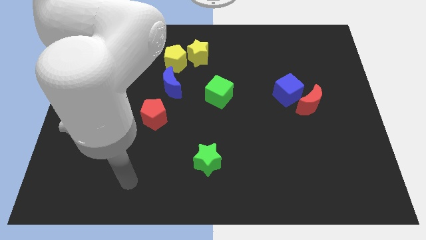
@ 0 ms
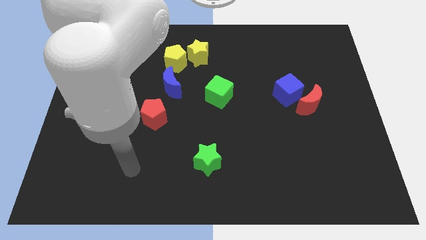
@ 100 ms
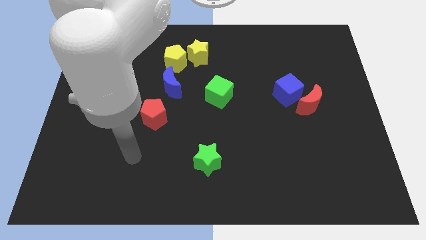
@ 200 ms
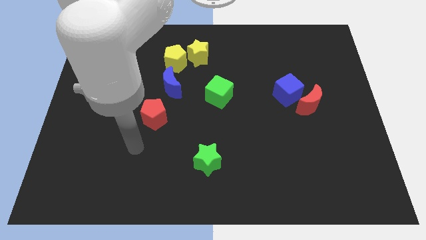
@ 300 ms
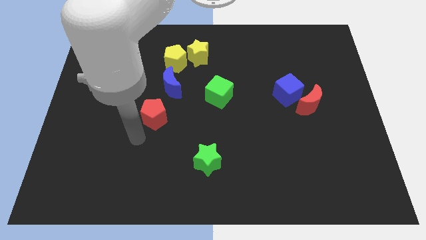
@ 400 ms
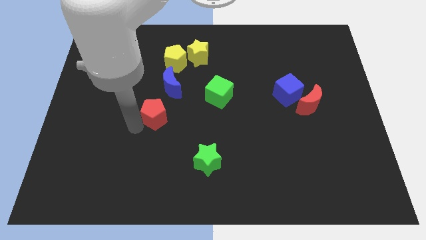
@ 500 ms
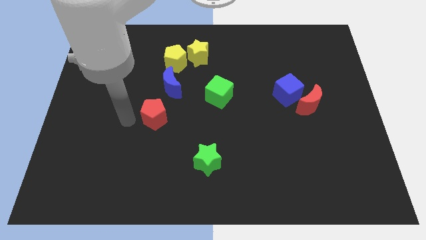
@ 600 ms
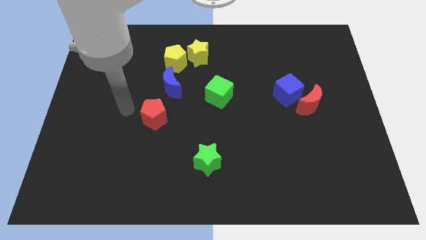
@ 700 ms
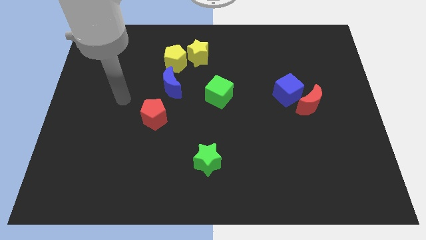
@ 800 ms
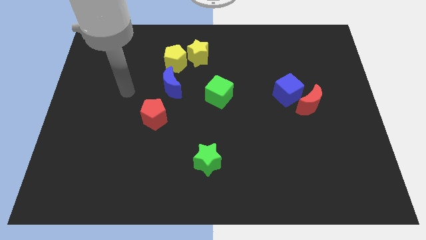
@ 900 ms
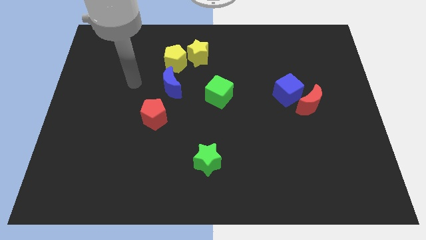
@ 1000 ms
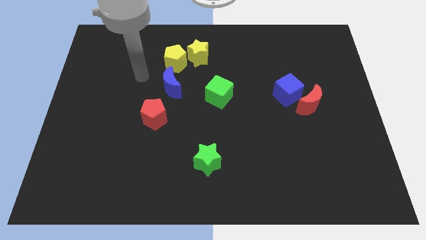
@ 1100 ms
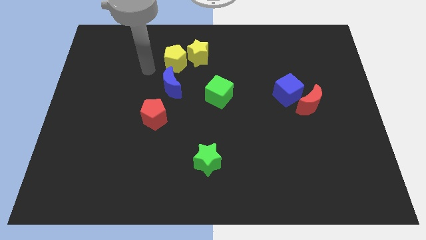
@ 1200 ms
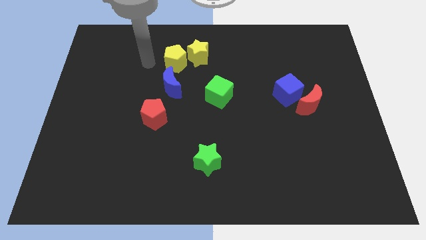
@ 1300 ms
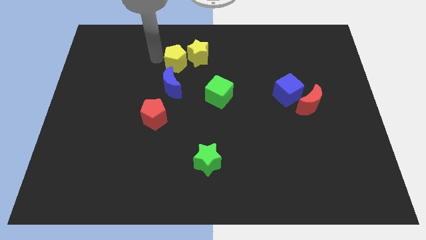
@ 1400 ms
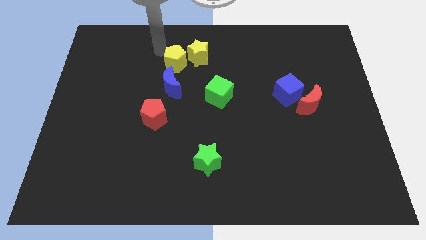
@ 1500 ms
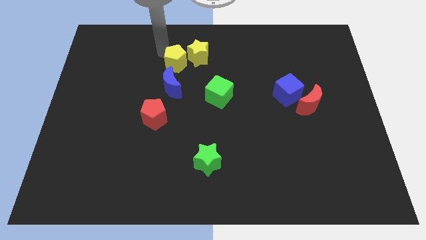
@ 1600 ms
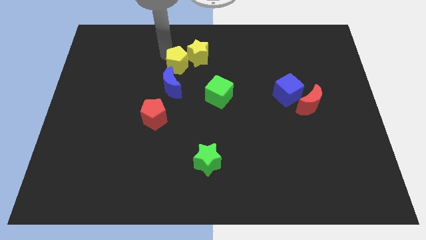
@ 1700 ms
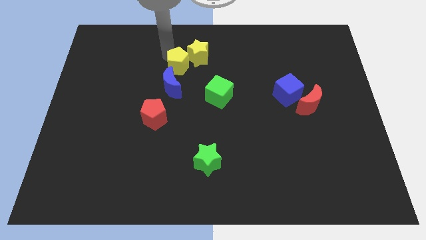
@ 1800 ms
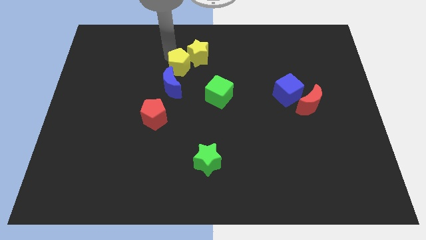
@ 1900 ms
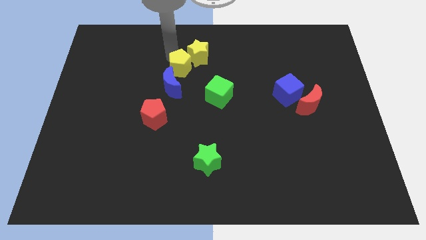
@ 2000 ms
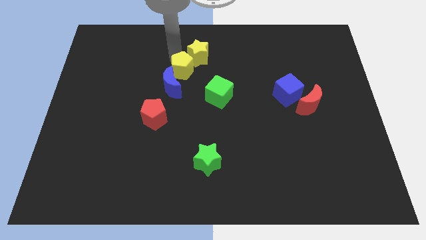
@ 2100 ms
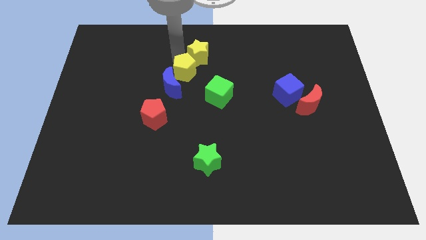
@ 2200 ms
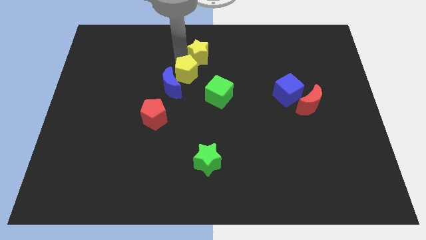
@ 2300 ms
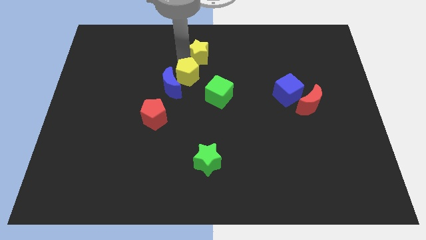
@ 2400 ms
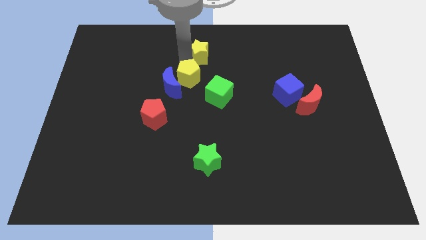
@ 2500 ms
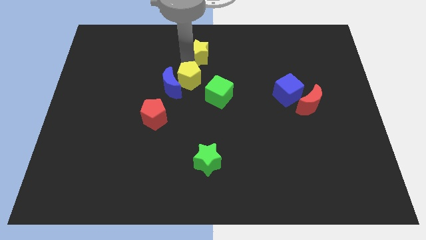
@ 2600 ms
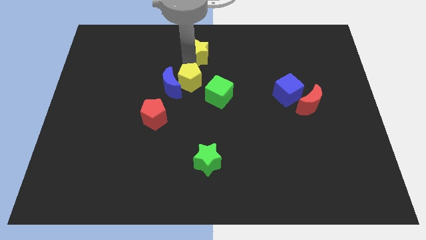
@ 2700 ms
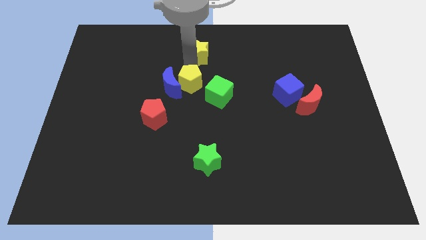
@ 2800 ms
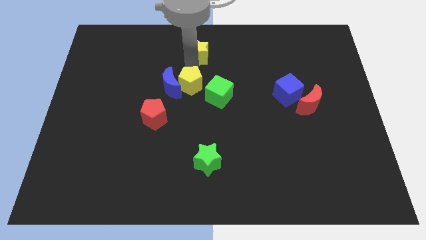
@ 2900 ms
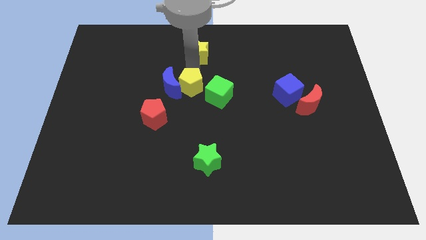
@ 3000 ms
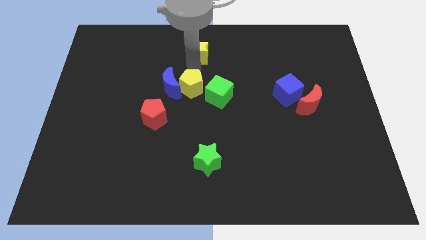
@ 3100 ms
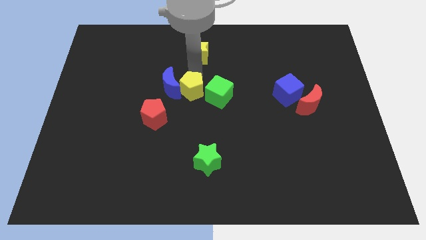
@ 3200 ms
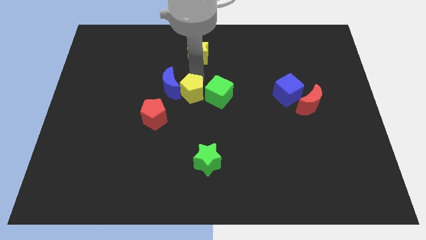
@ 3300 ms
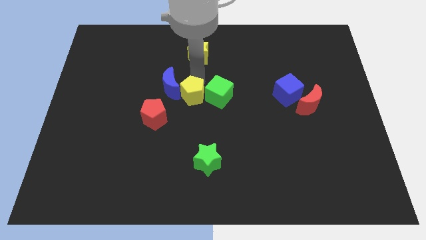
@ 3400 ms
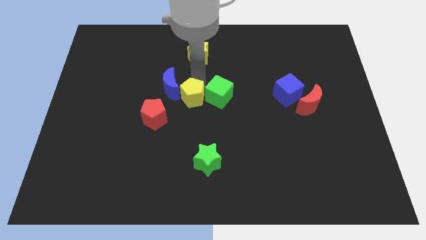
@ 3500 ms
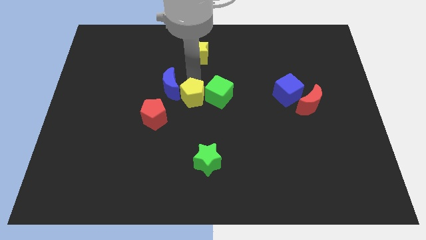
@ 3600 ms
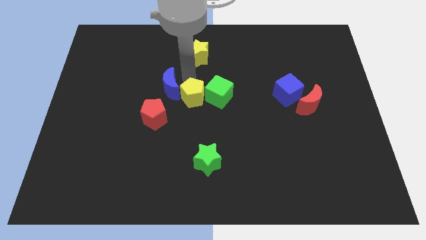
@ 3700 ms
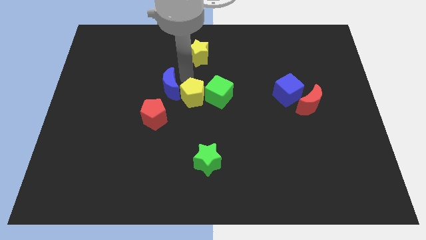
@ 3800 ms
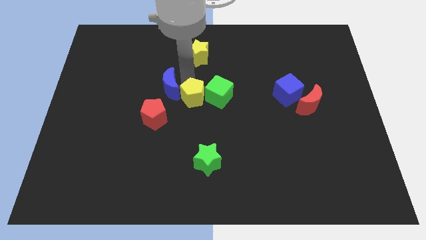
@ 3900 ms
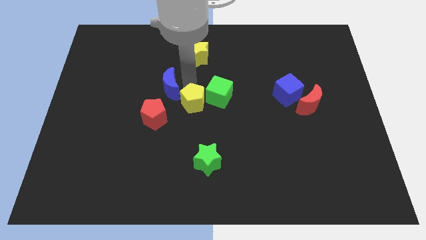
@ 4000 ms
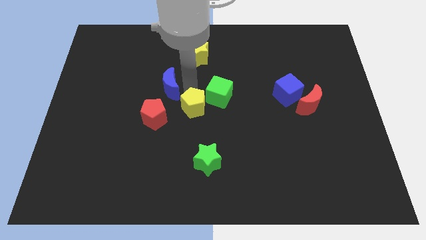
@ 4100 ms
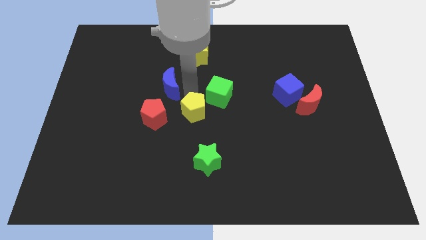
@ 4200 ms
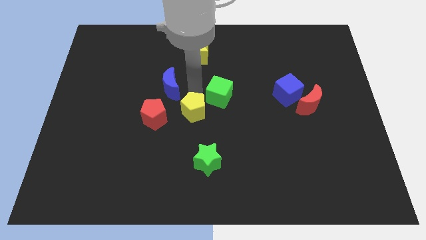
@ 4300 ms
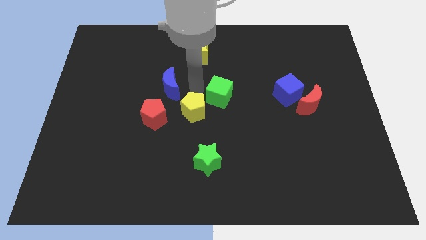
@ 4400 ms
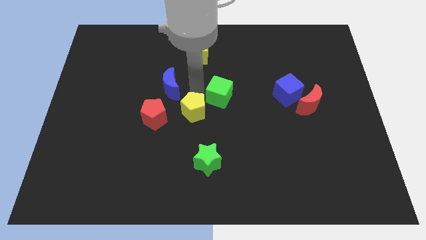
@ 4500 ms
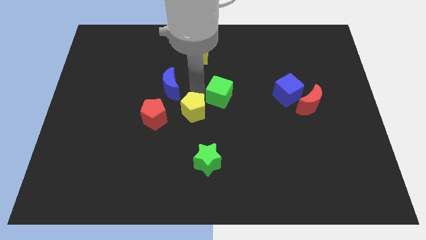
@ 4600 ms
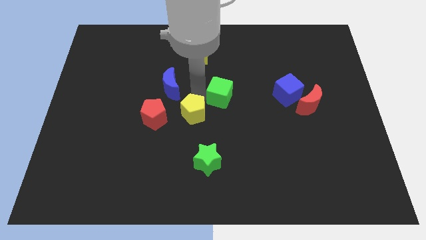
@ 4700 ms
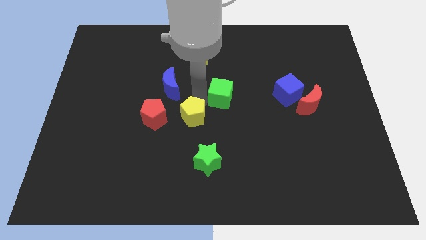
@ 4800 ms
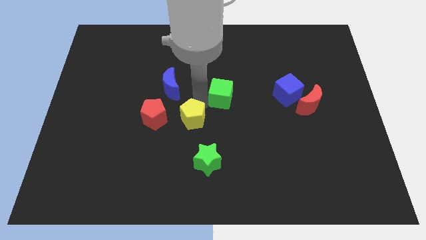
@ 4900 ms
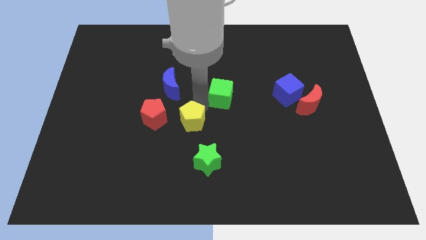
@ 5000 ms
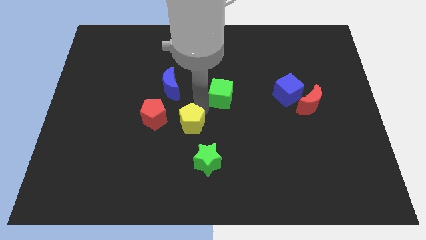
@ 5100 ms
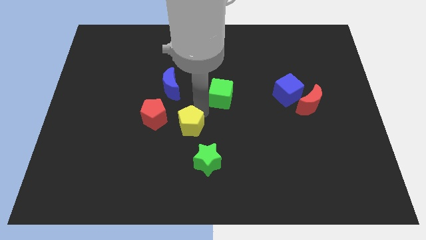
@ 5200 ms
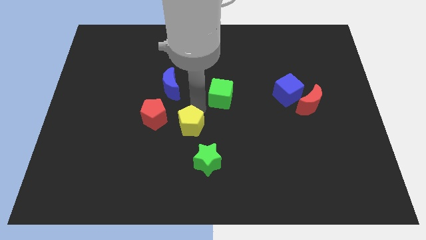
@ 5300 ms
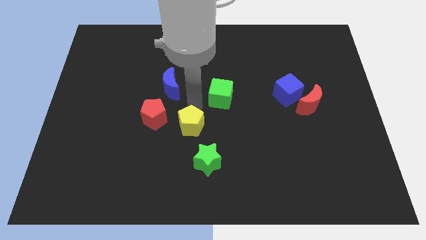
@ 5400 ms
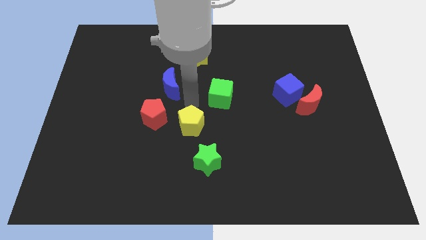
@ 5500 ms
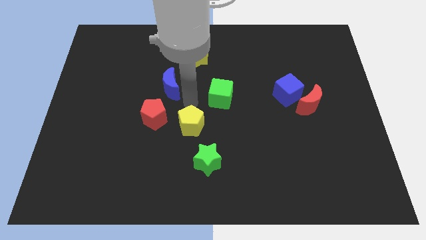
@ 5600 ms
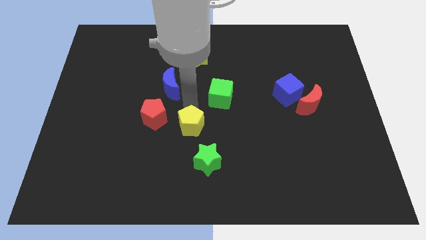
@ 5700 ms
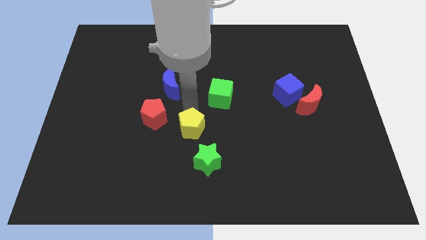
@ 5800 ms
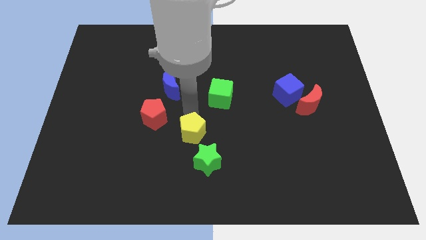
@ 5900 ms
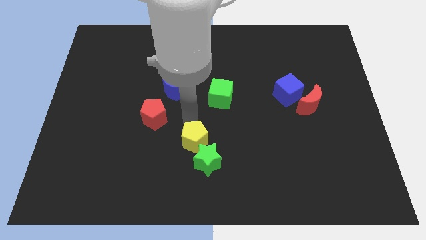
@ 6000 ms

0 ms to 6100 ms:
push the yellow pentagon next to the green star

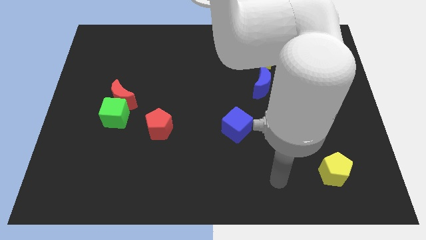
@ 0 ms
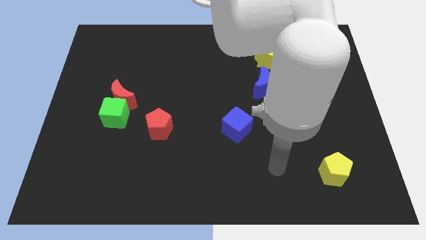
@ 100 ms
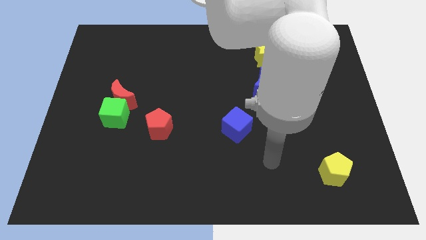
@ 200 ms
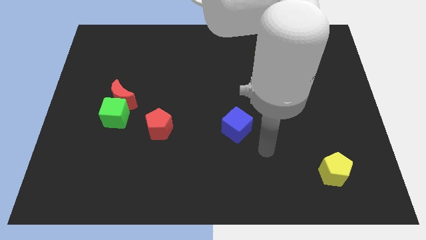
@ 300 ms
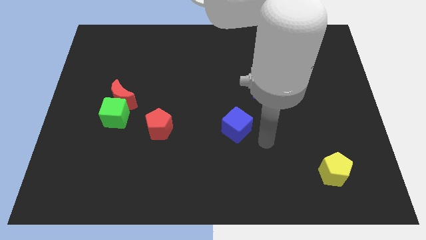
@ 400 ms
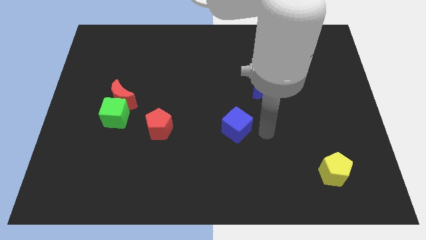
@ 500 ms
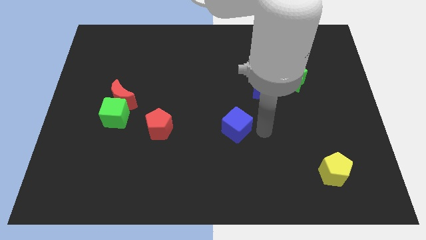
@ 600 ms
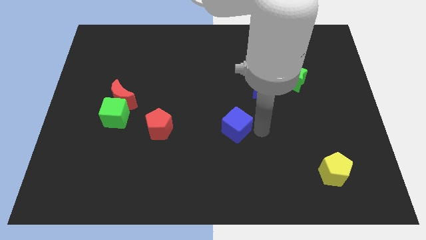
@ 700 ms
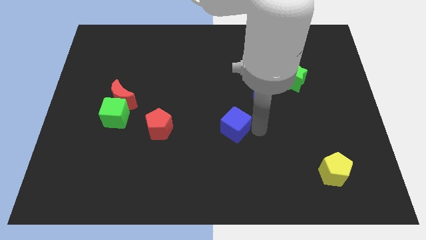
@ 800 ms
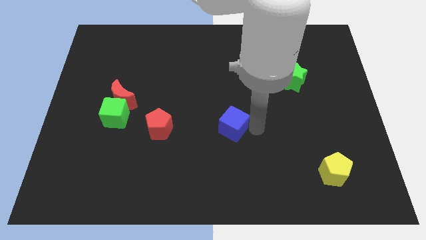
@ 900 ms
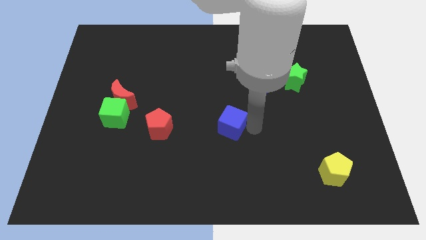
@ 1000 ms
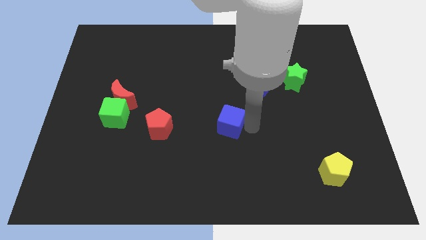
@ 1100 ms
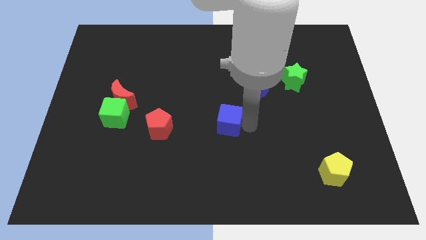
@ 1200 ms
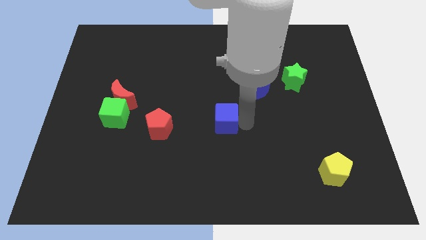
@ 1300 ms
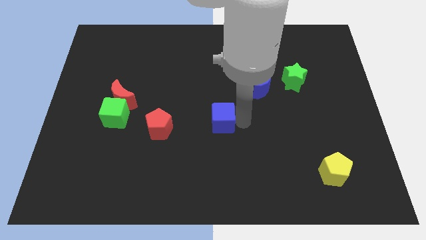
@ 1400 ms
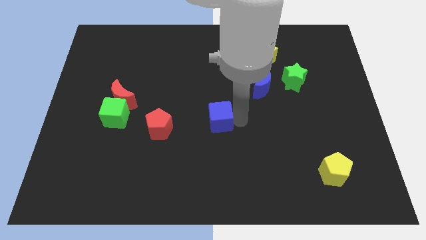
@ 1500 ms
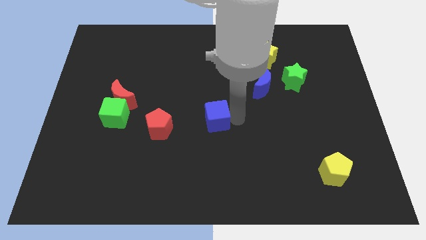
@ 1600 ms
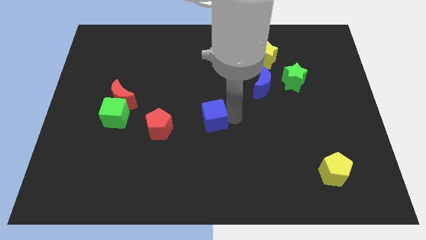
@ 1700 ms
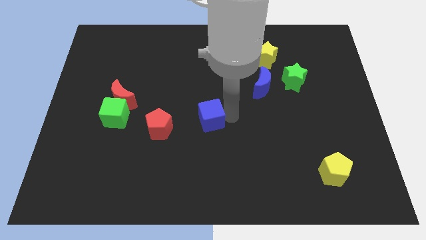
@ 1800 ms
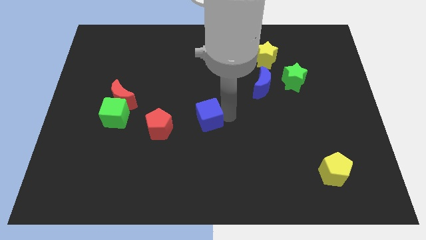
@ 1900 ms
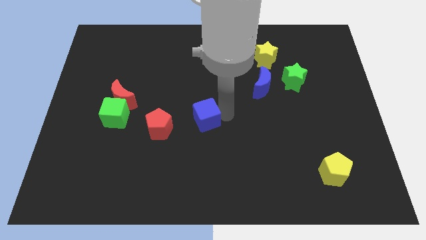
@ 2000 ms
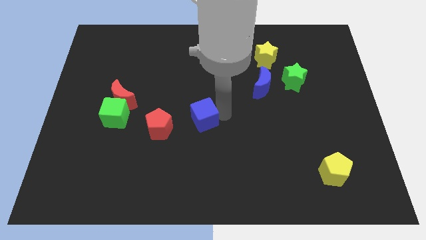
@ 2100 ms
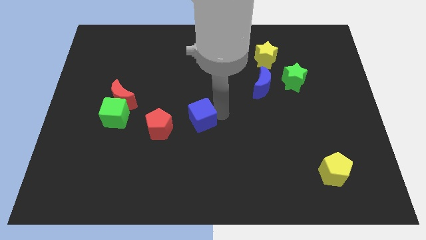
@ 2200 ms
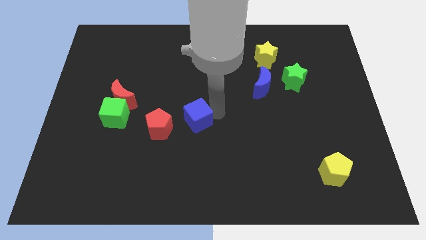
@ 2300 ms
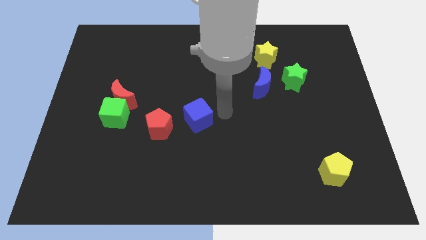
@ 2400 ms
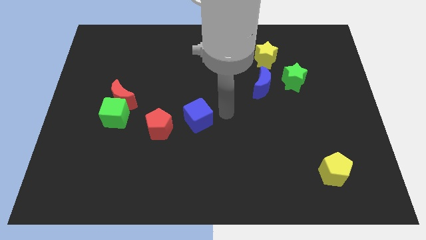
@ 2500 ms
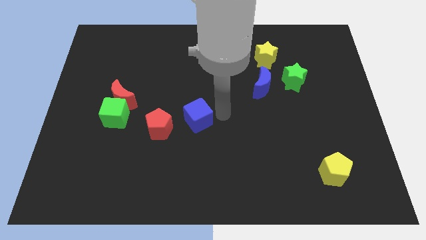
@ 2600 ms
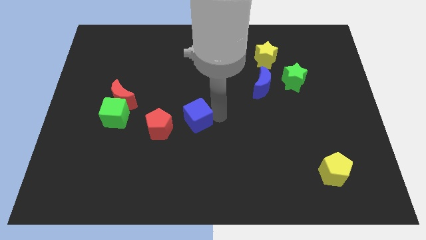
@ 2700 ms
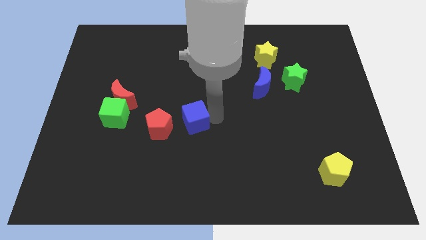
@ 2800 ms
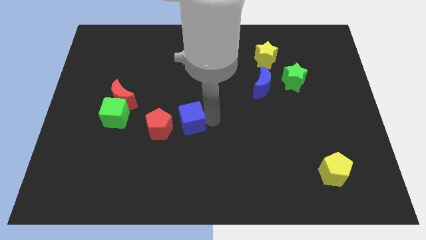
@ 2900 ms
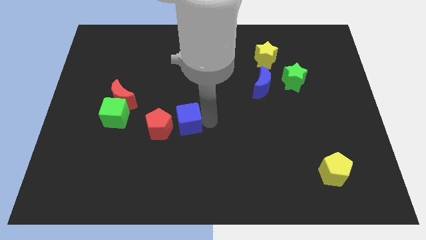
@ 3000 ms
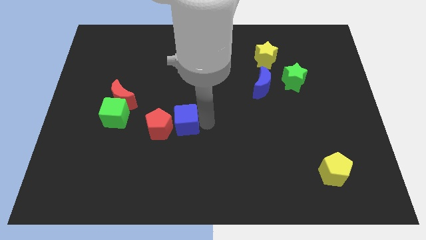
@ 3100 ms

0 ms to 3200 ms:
slide the blue cube next to the red pentagon
